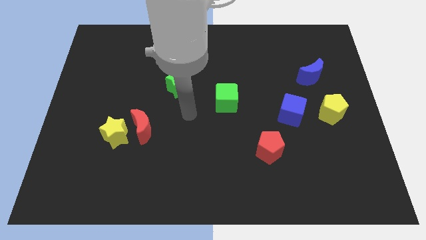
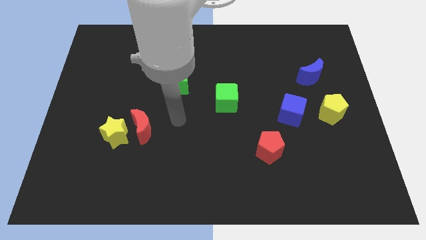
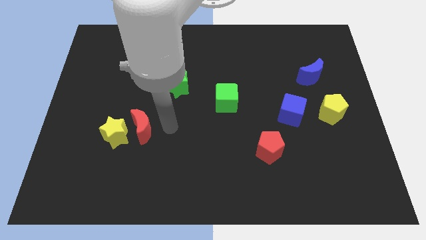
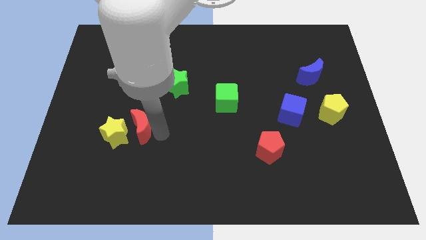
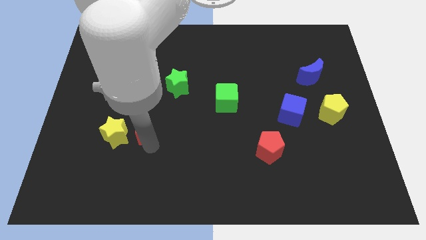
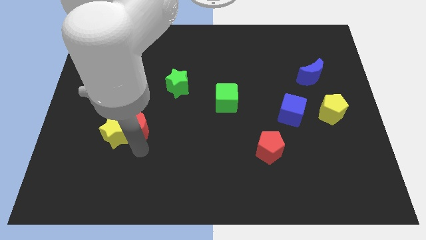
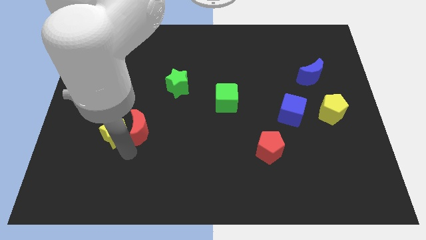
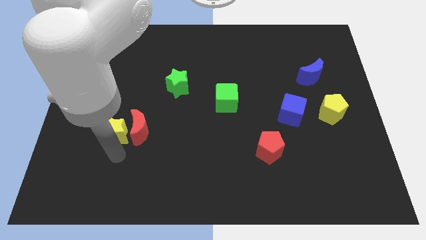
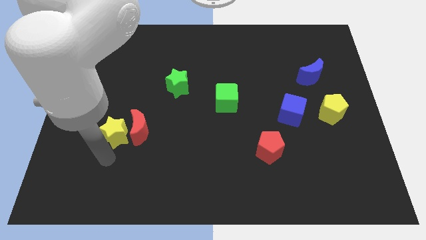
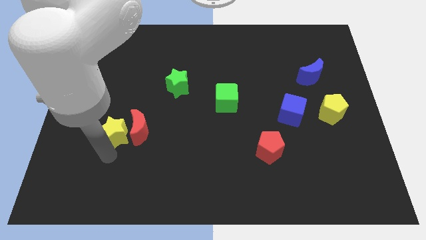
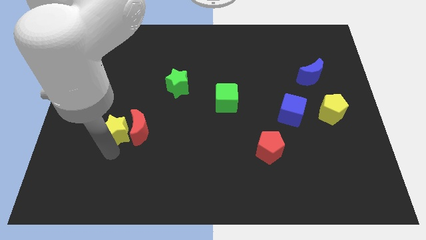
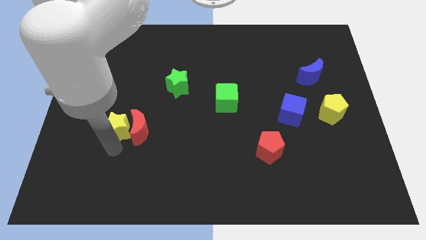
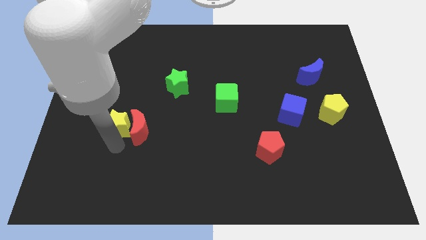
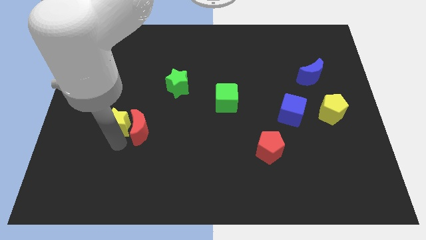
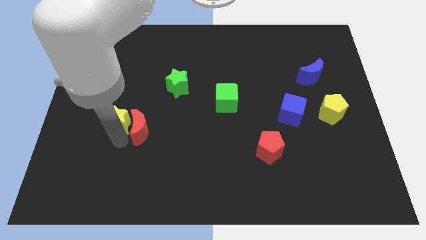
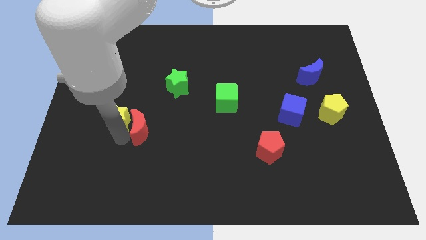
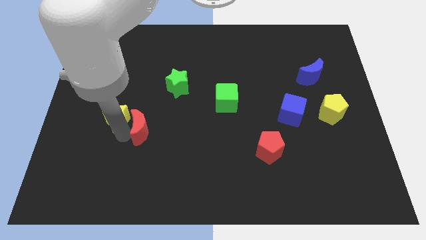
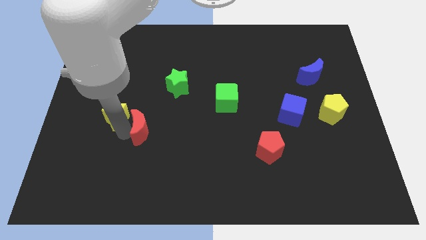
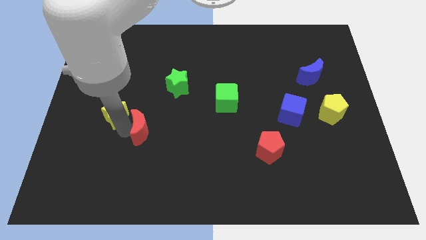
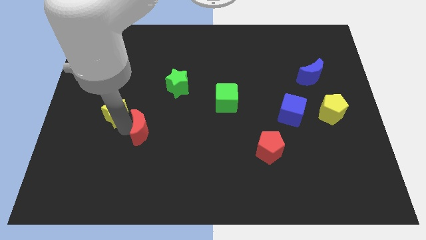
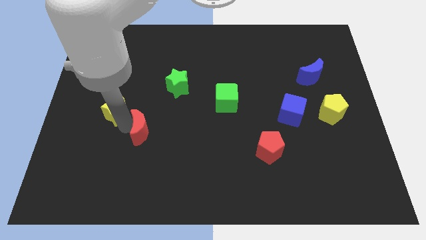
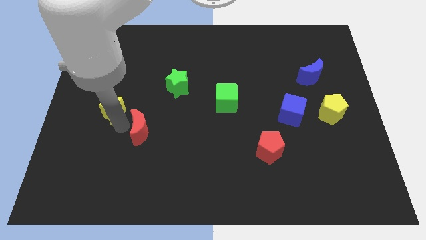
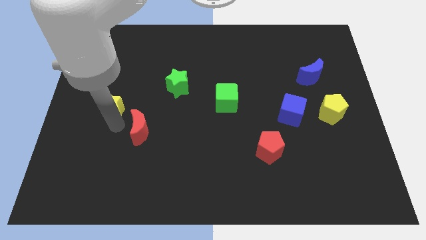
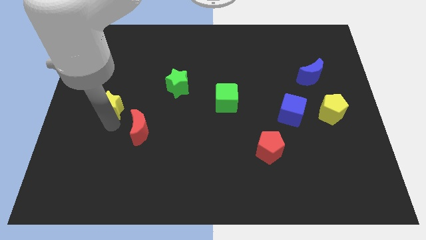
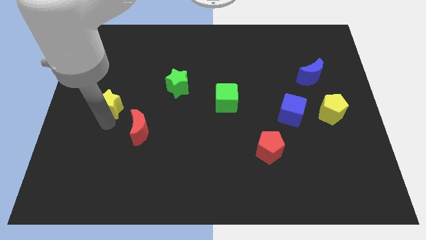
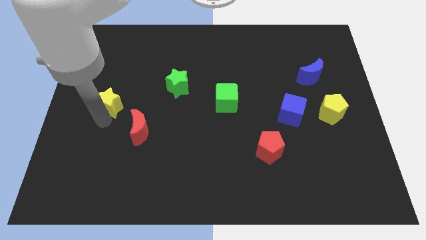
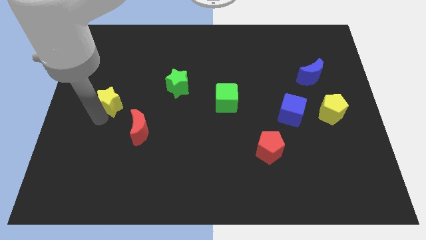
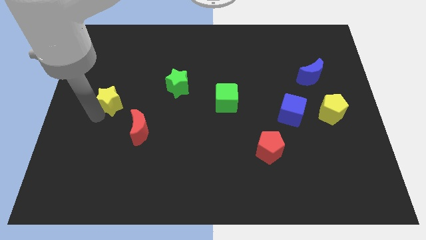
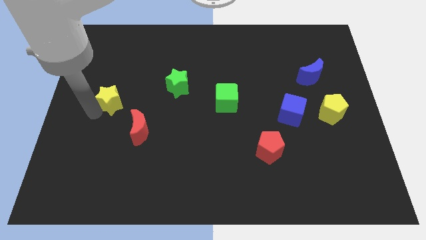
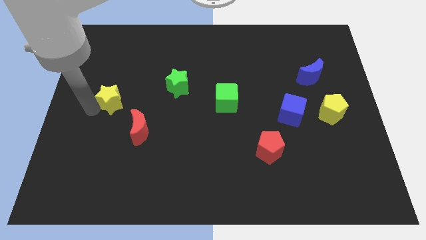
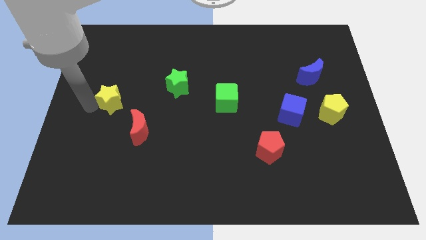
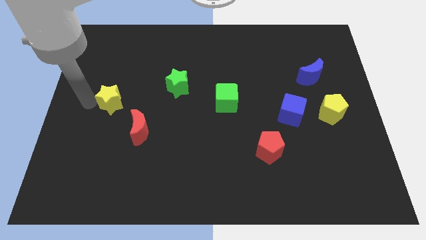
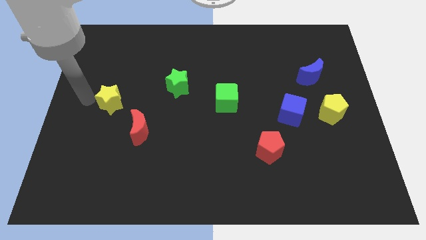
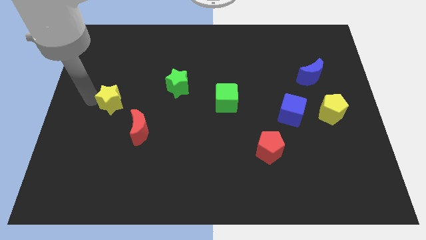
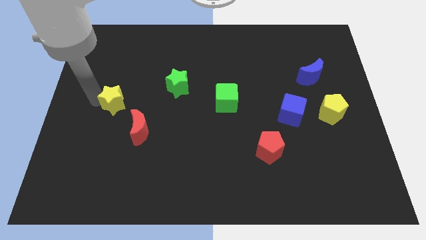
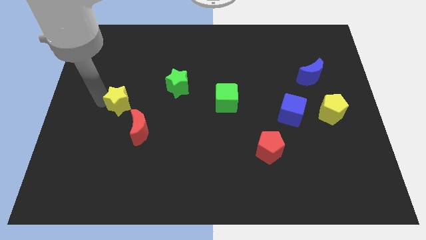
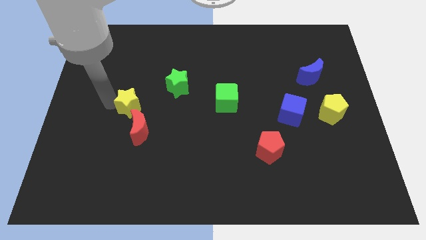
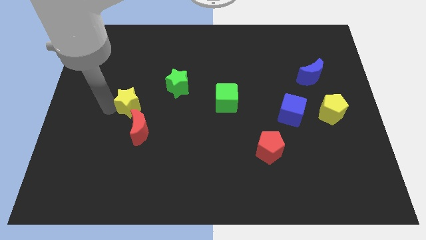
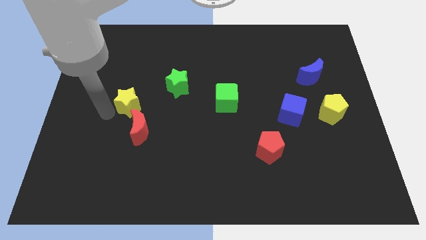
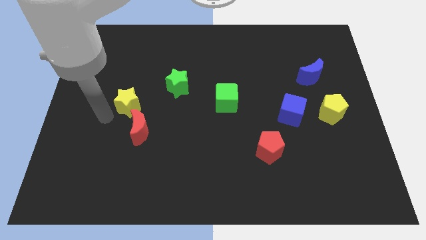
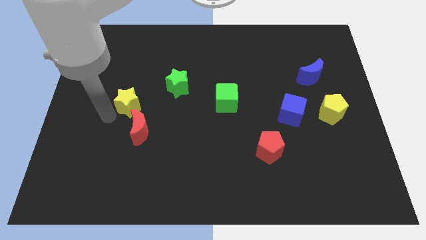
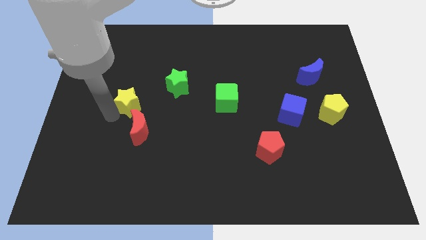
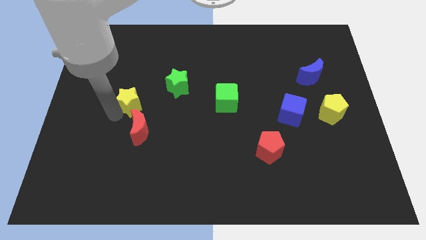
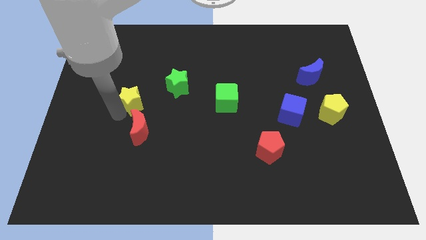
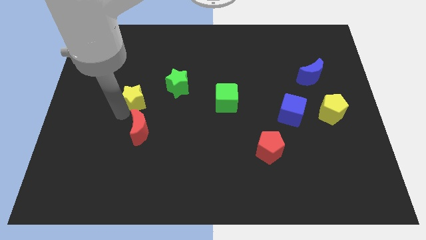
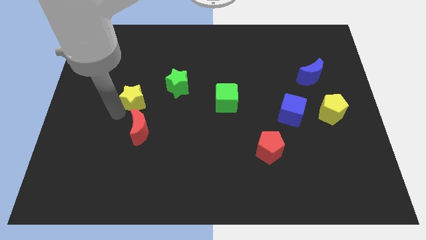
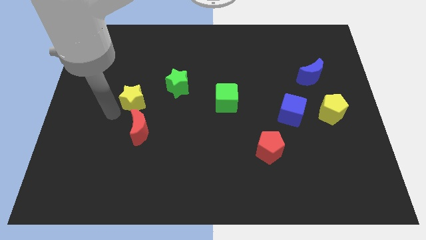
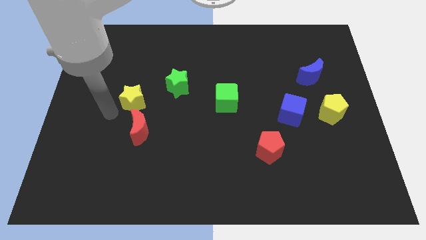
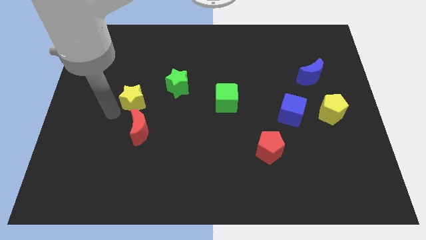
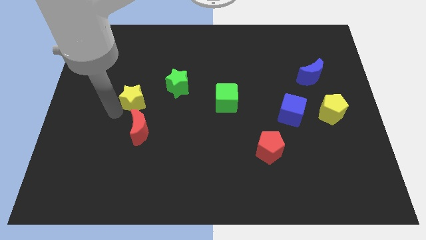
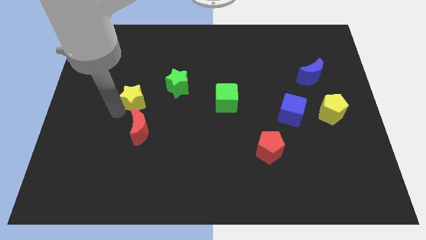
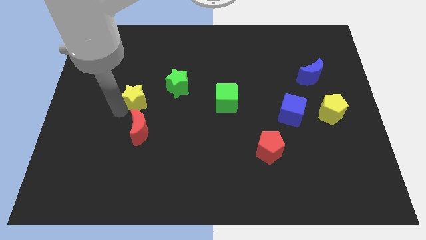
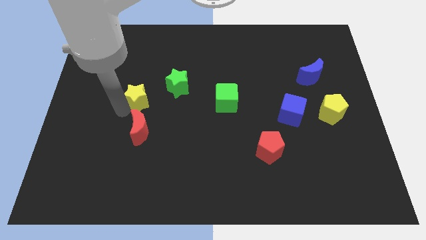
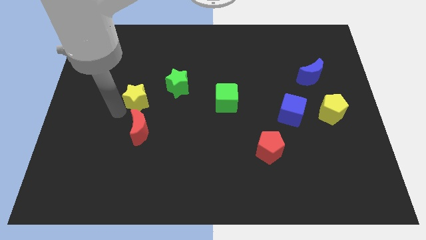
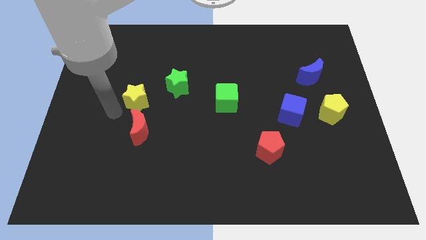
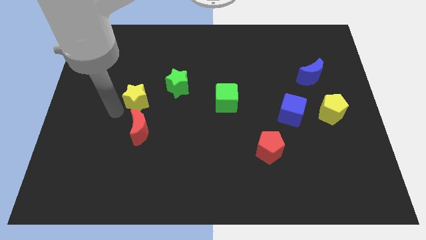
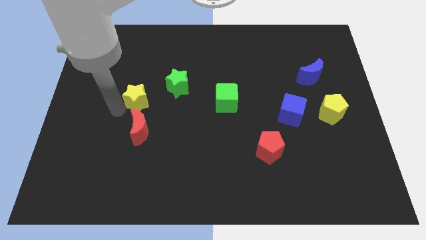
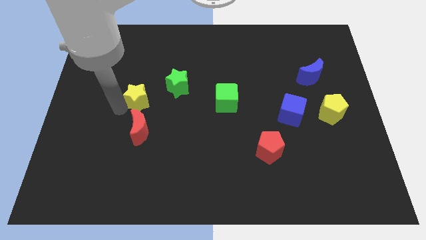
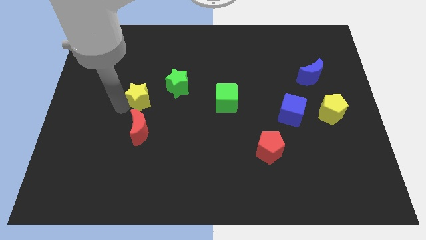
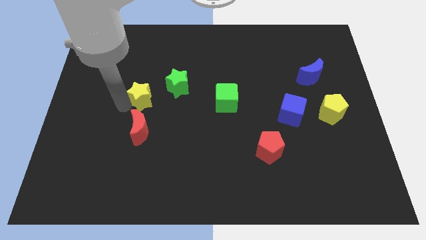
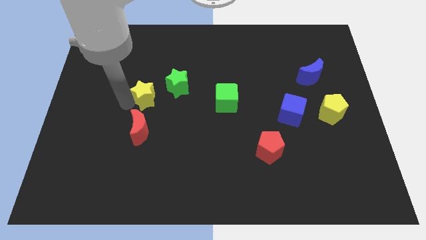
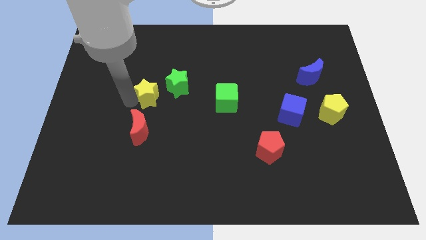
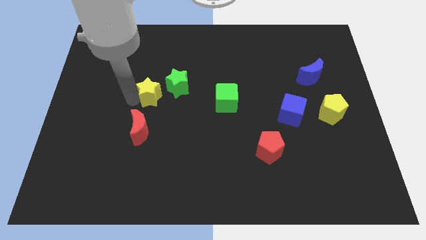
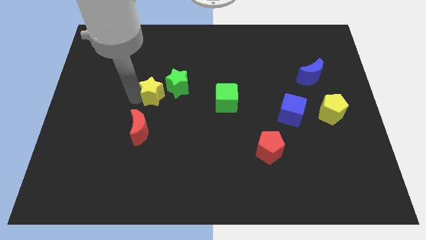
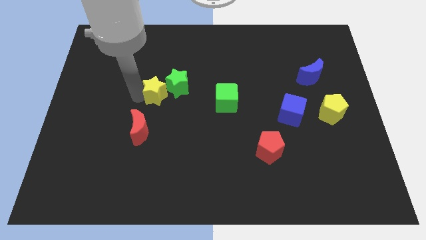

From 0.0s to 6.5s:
move the yellow star to the green star

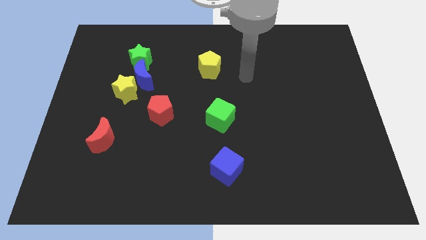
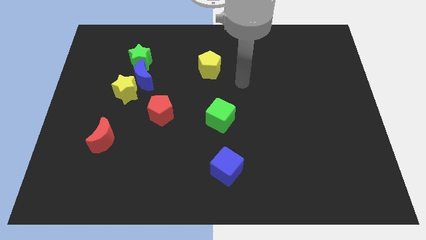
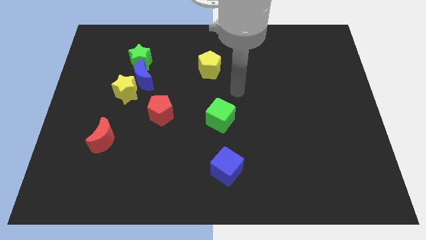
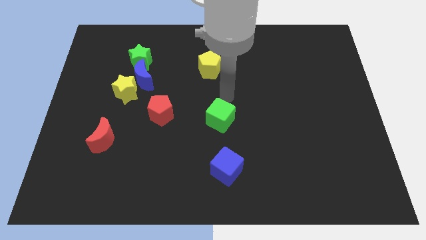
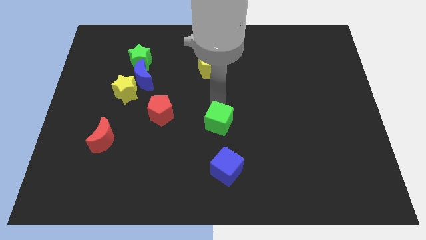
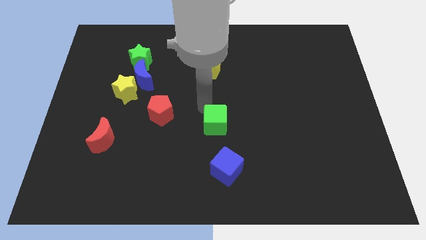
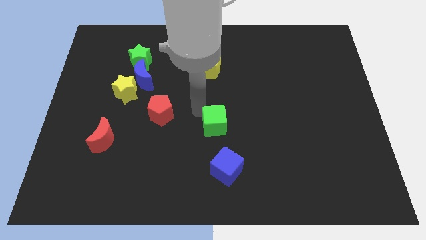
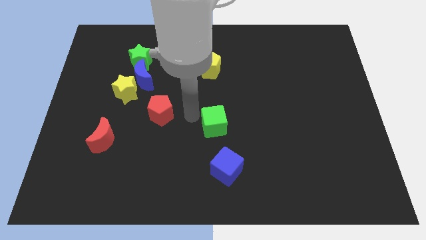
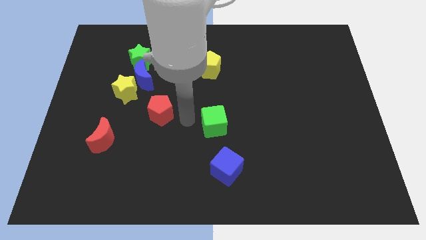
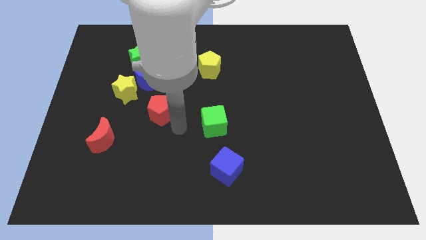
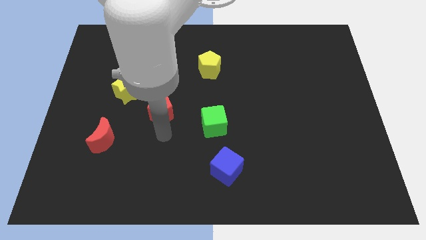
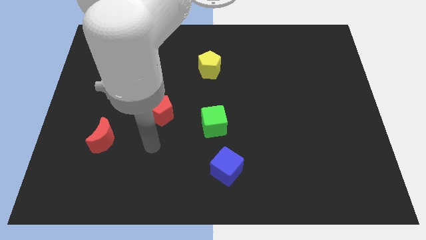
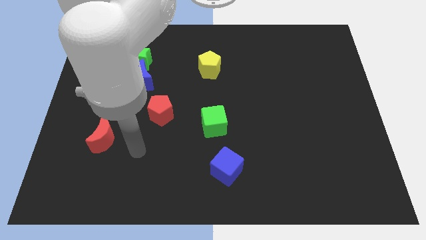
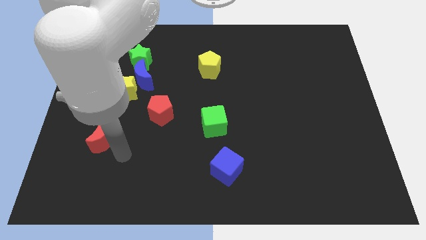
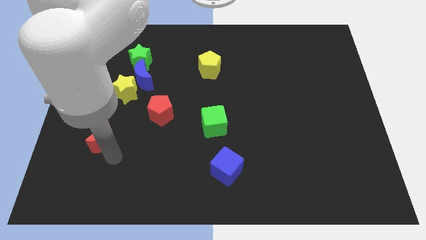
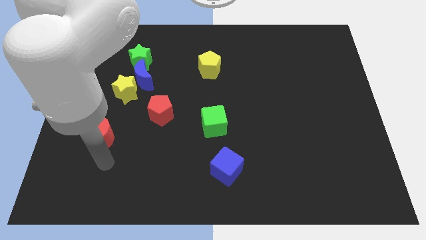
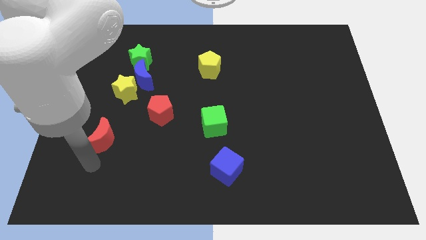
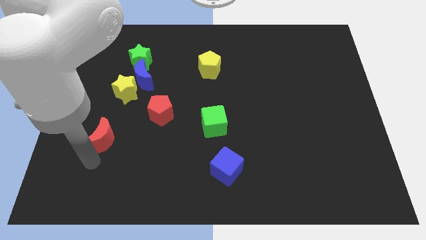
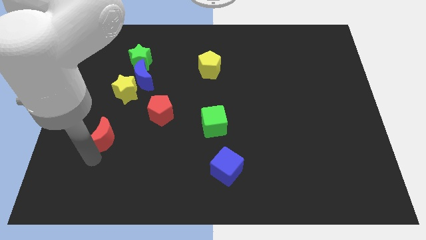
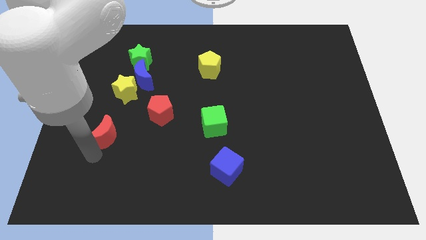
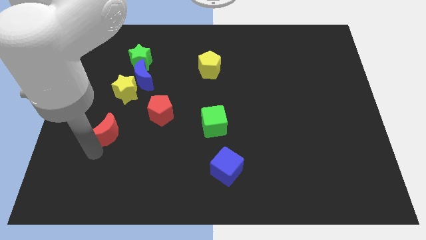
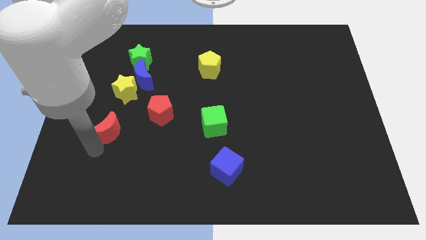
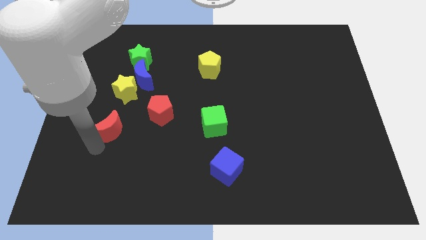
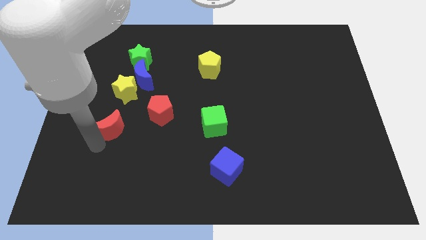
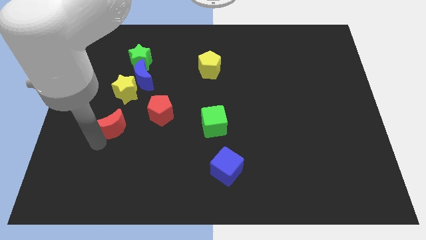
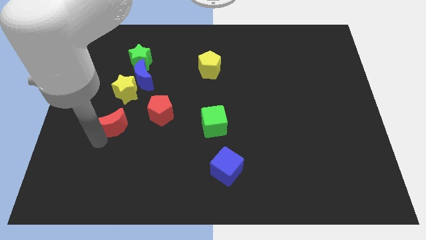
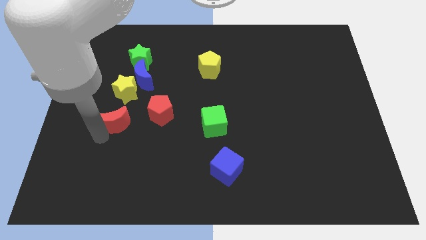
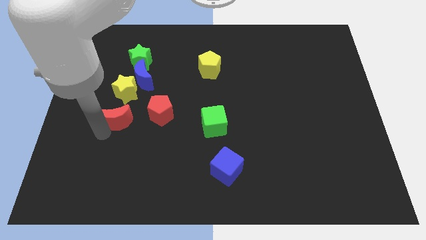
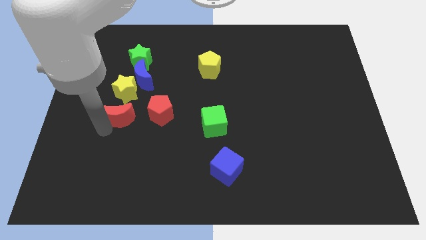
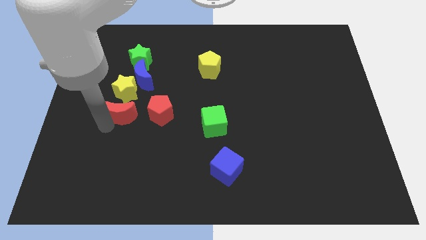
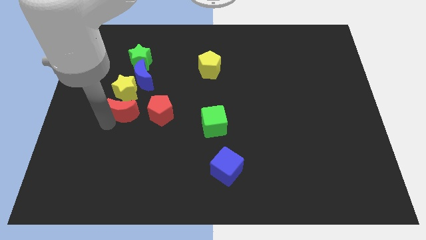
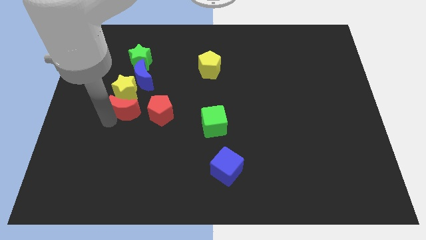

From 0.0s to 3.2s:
push the red moon to the yellow star
